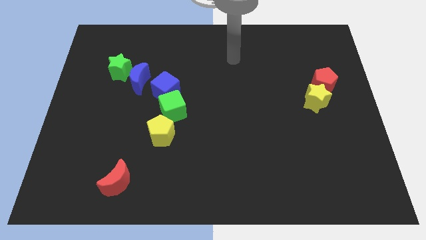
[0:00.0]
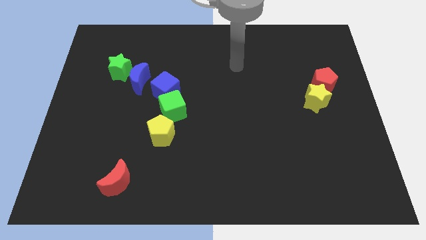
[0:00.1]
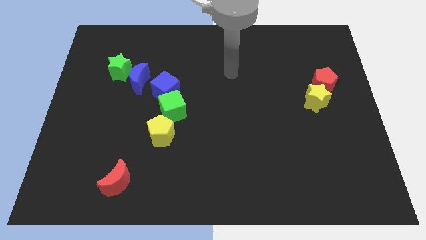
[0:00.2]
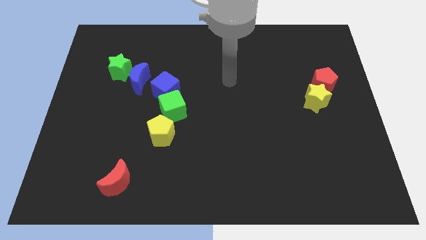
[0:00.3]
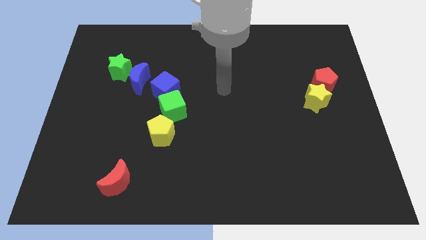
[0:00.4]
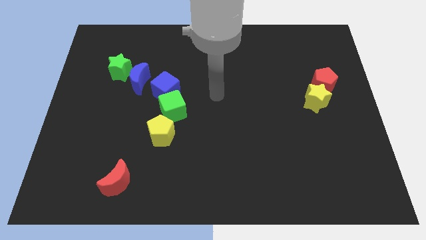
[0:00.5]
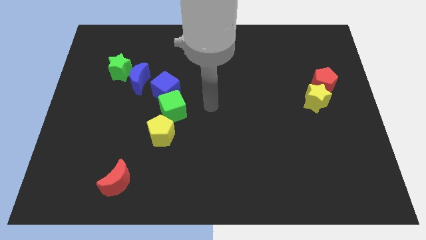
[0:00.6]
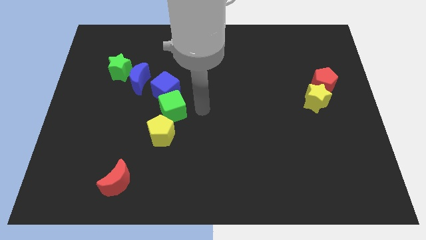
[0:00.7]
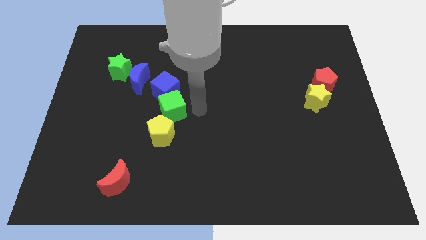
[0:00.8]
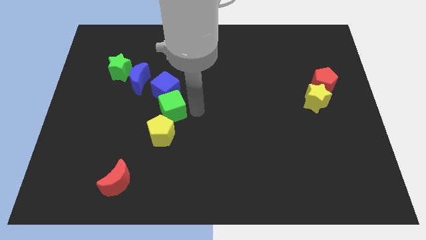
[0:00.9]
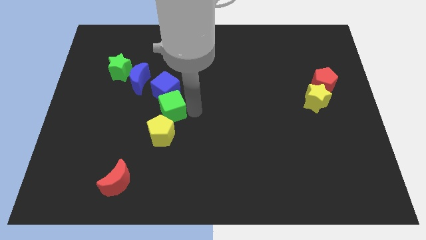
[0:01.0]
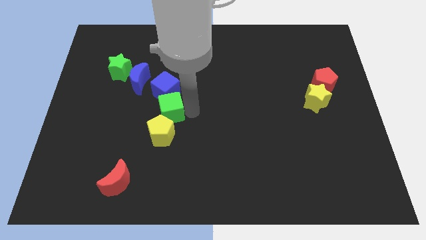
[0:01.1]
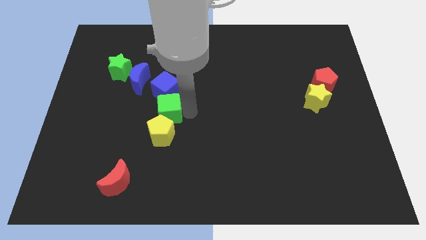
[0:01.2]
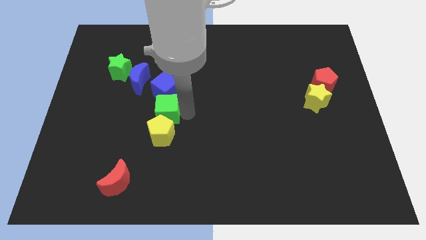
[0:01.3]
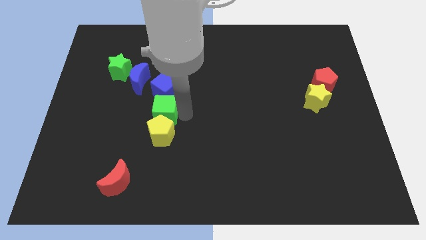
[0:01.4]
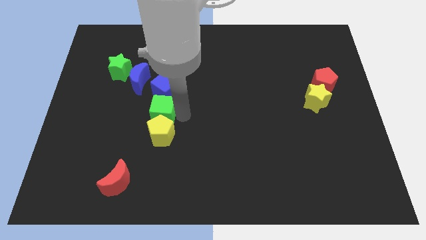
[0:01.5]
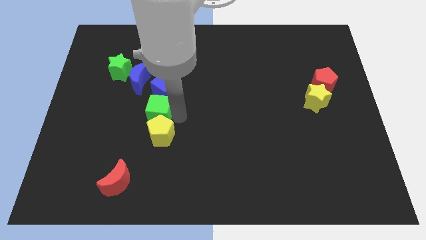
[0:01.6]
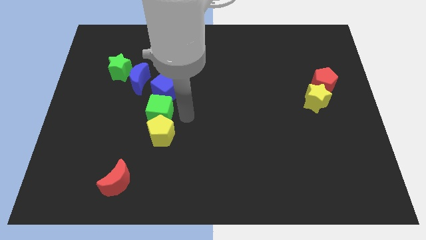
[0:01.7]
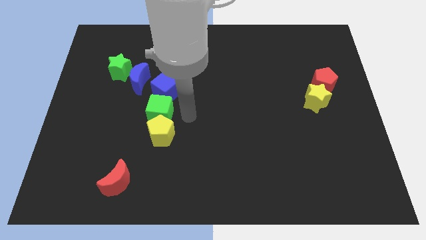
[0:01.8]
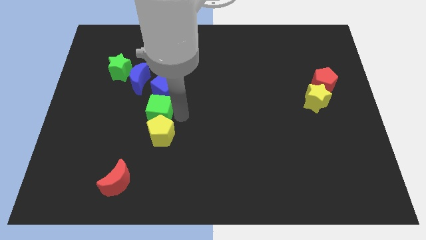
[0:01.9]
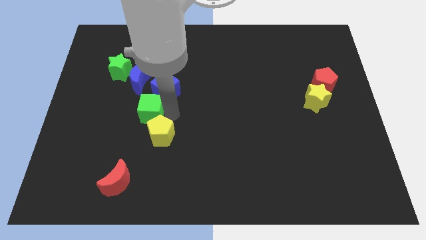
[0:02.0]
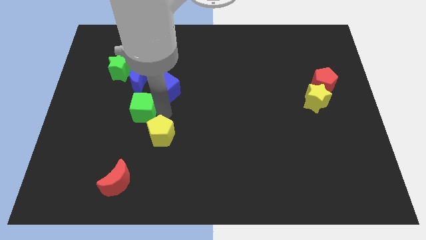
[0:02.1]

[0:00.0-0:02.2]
slightly move the green cube left

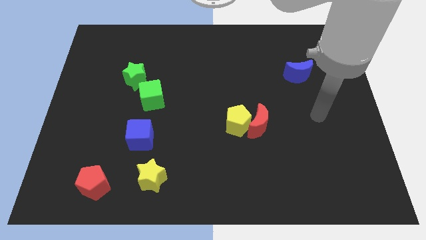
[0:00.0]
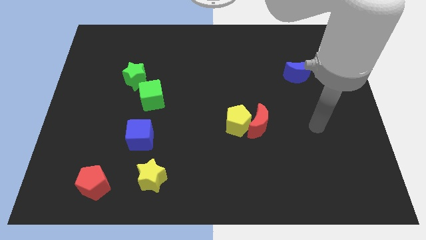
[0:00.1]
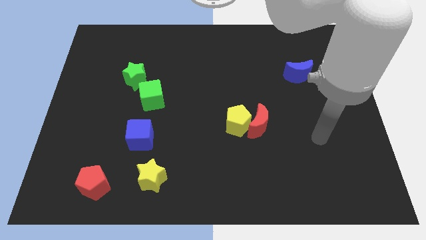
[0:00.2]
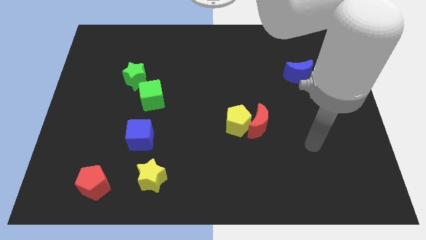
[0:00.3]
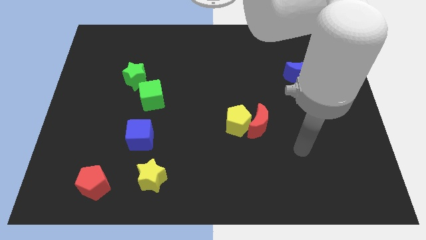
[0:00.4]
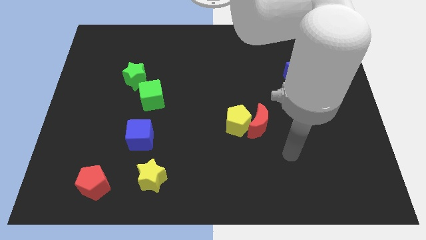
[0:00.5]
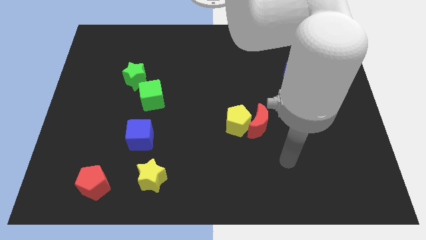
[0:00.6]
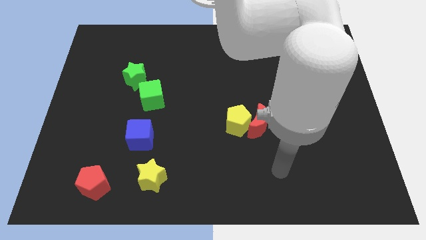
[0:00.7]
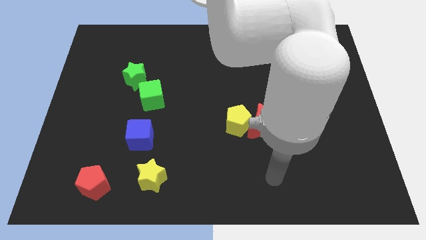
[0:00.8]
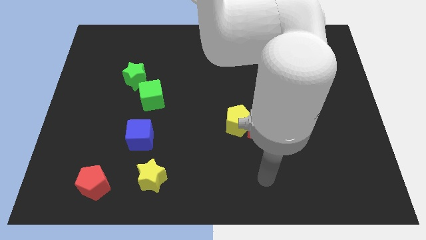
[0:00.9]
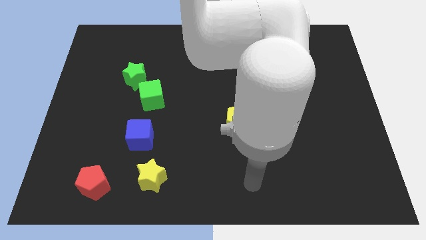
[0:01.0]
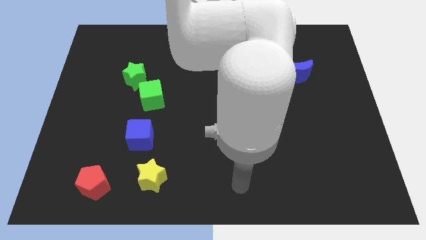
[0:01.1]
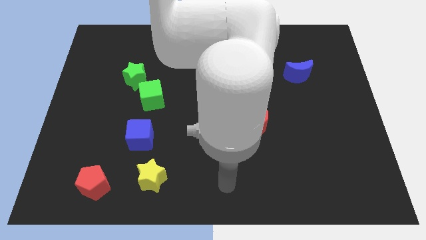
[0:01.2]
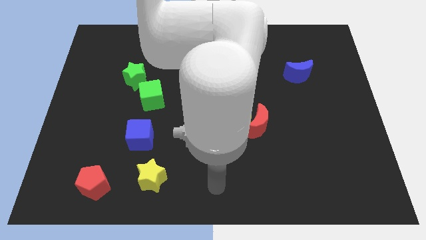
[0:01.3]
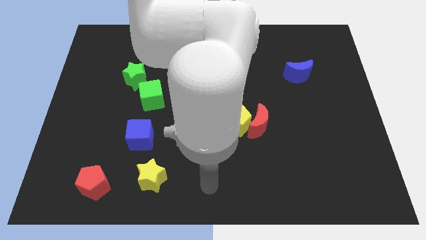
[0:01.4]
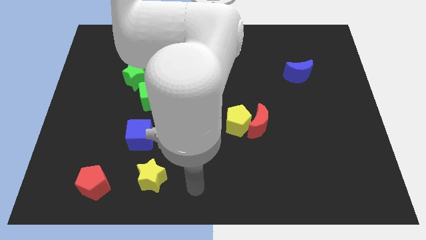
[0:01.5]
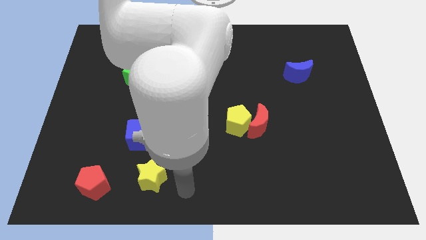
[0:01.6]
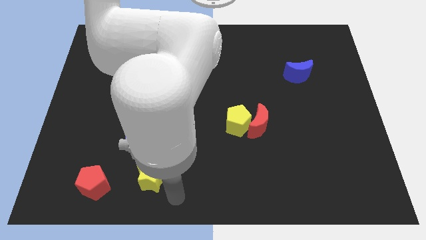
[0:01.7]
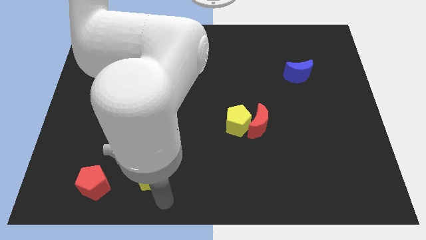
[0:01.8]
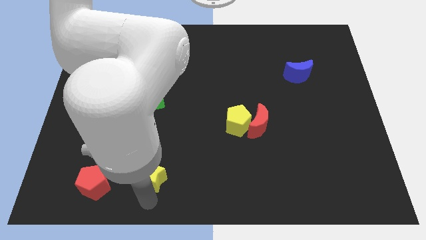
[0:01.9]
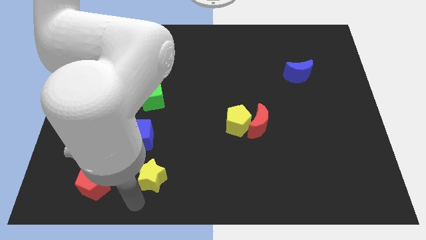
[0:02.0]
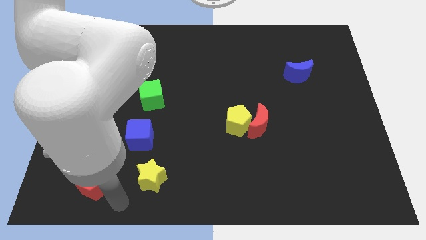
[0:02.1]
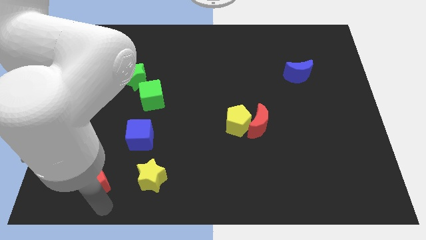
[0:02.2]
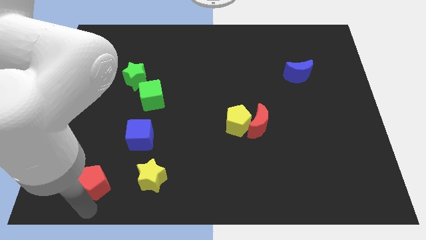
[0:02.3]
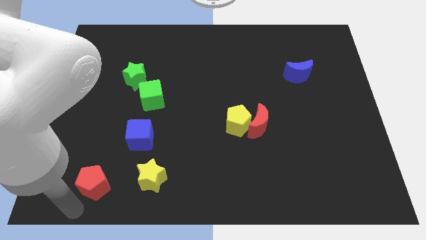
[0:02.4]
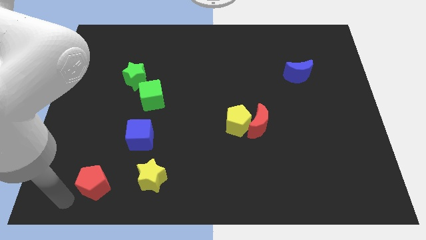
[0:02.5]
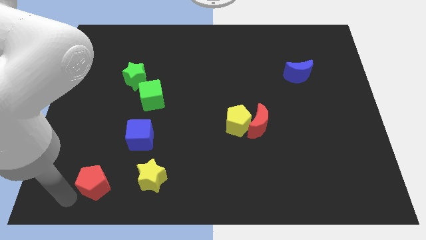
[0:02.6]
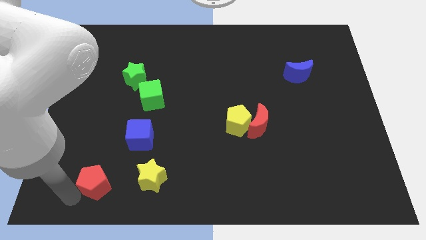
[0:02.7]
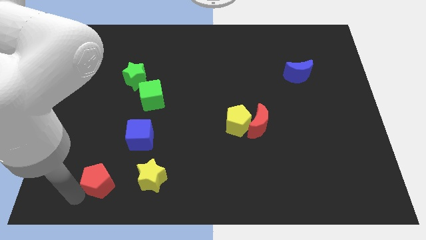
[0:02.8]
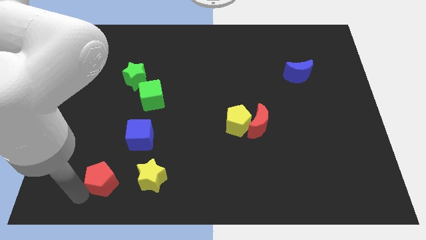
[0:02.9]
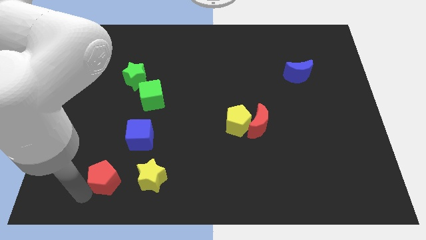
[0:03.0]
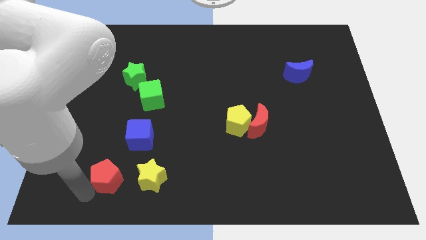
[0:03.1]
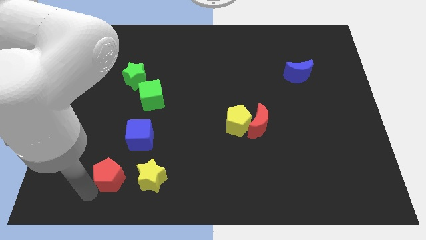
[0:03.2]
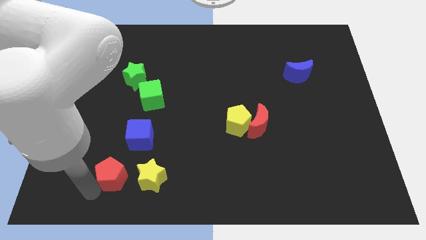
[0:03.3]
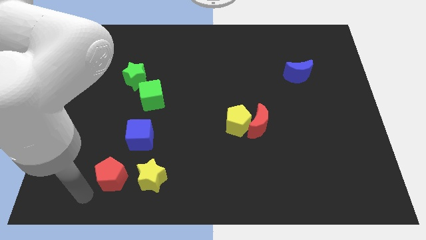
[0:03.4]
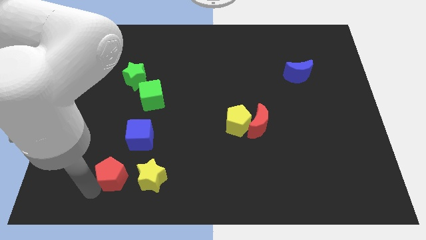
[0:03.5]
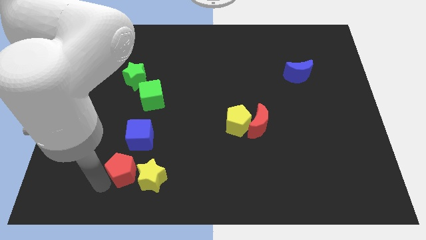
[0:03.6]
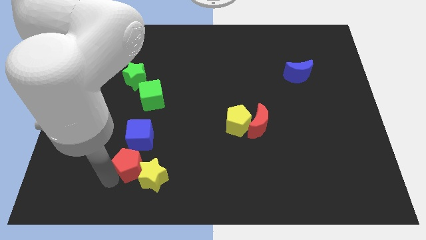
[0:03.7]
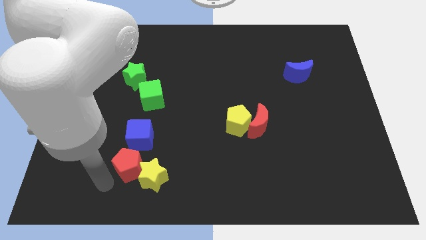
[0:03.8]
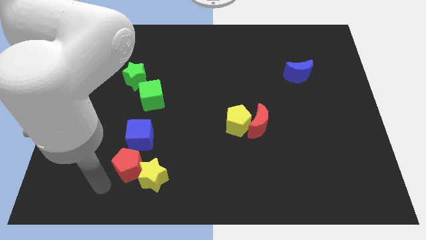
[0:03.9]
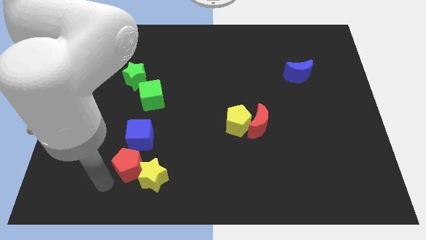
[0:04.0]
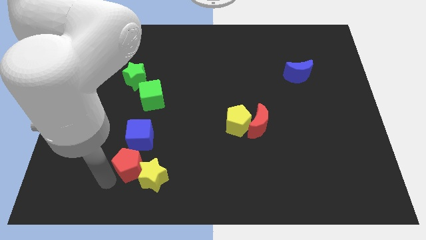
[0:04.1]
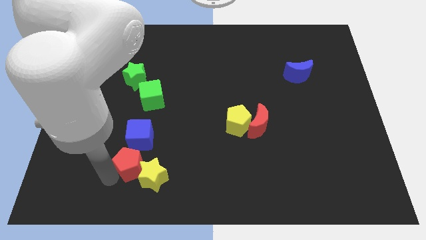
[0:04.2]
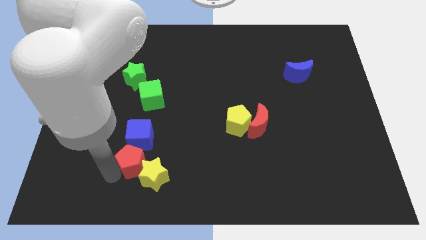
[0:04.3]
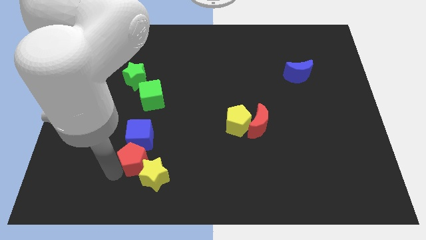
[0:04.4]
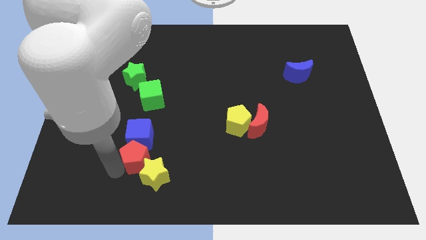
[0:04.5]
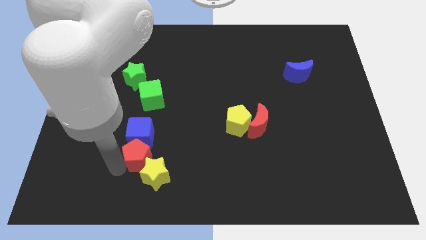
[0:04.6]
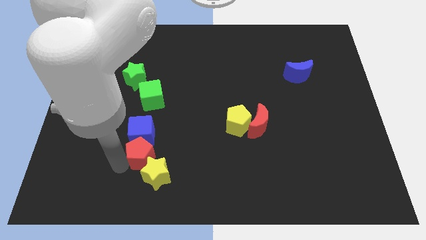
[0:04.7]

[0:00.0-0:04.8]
slightly push the red pentagon right

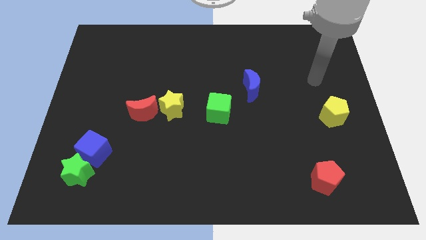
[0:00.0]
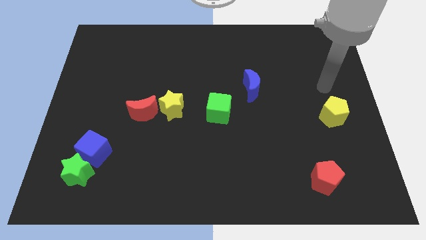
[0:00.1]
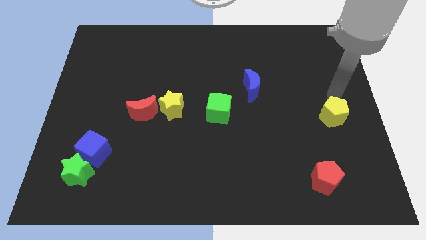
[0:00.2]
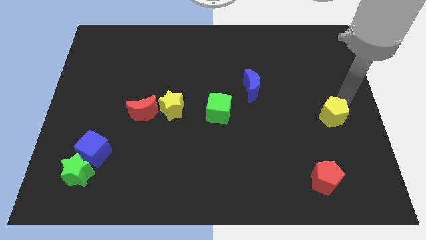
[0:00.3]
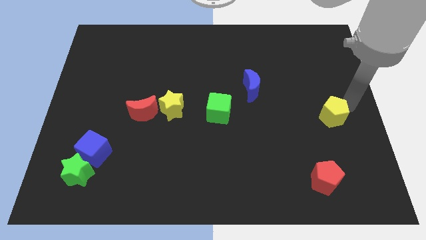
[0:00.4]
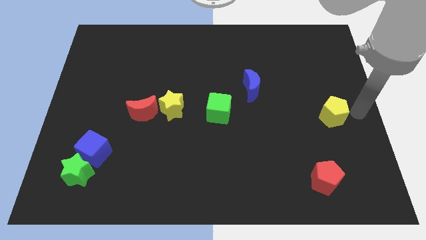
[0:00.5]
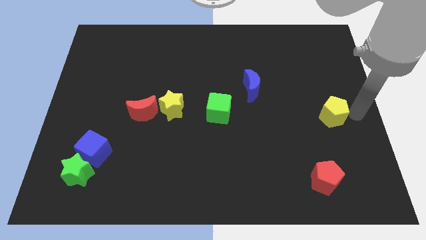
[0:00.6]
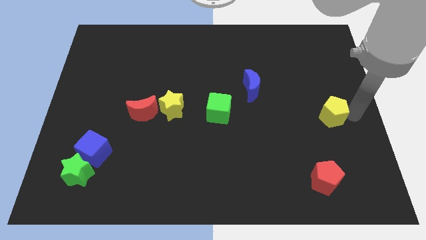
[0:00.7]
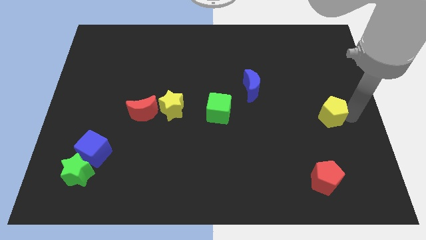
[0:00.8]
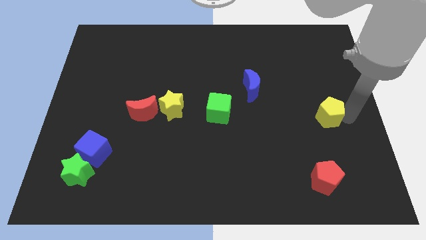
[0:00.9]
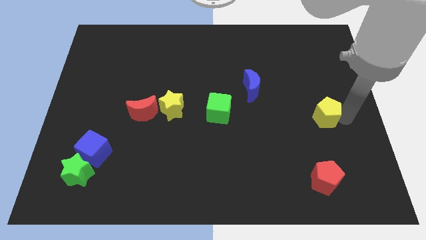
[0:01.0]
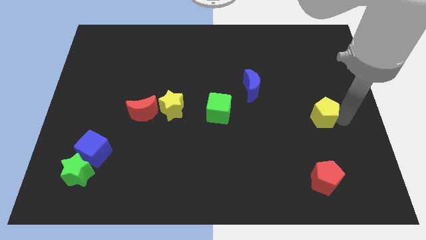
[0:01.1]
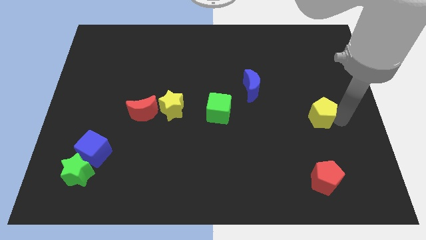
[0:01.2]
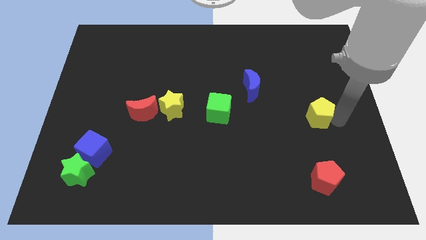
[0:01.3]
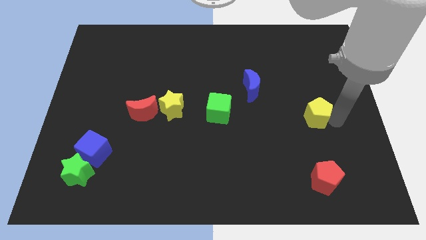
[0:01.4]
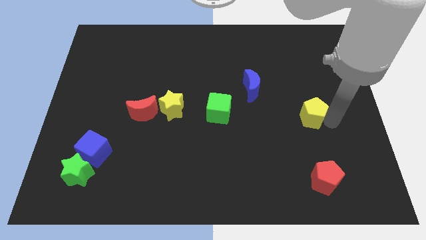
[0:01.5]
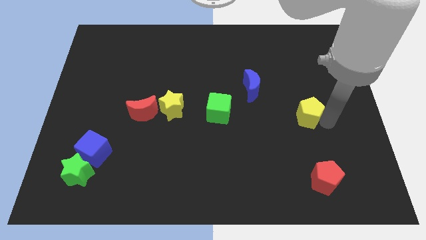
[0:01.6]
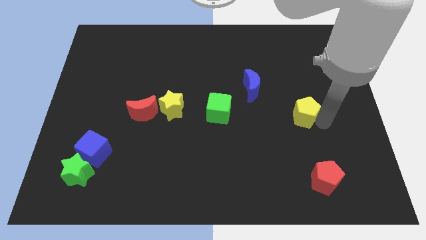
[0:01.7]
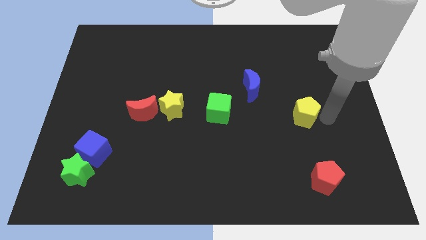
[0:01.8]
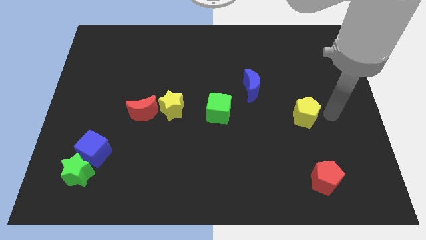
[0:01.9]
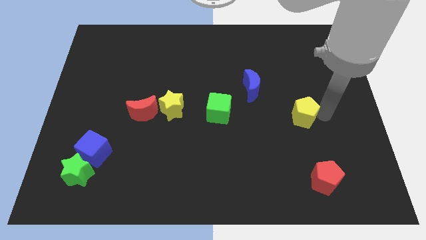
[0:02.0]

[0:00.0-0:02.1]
slightly move the yellow pentagon to the left
